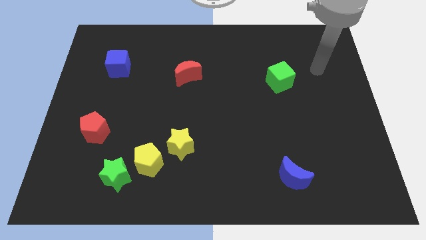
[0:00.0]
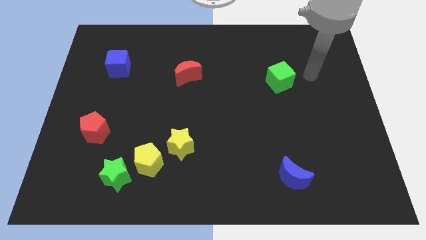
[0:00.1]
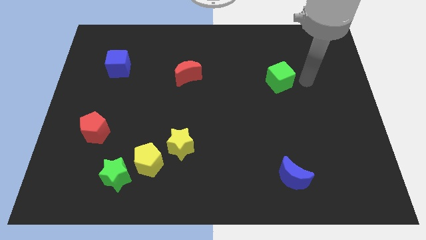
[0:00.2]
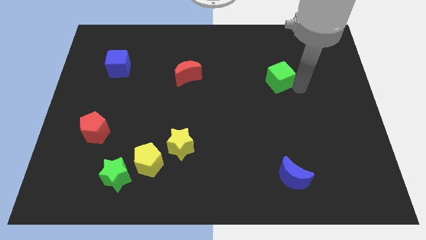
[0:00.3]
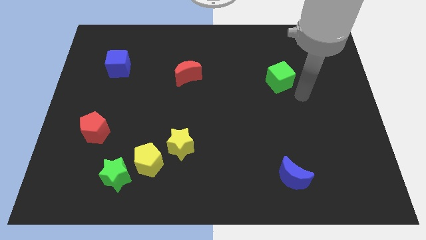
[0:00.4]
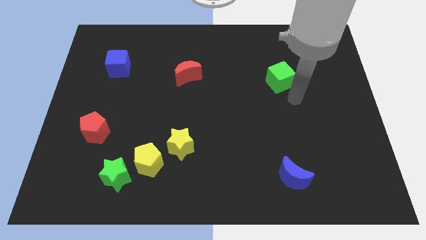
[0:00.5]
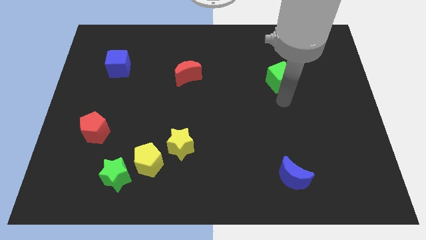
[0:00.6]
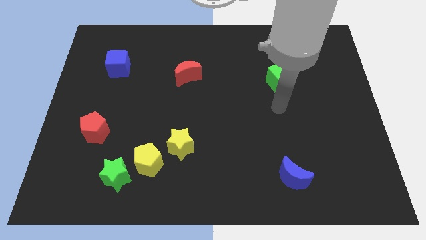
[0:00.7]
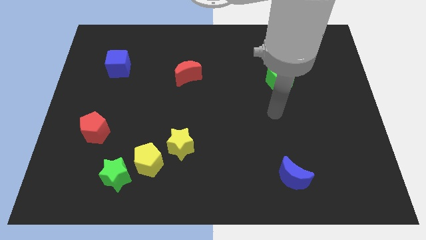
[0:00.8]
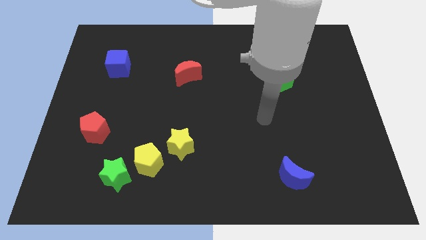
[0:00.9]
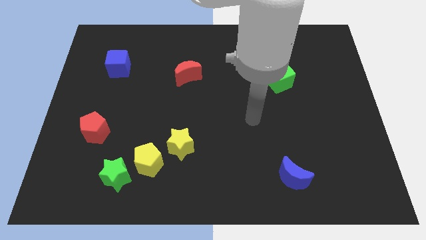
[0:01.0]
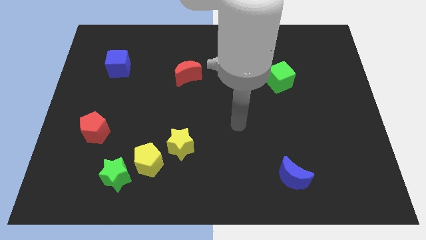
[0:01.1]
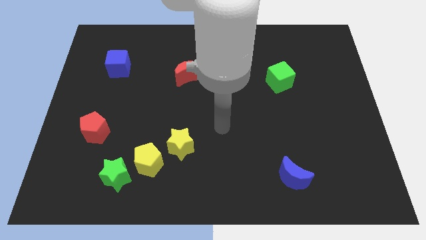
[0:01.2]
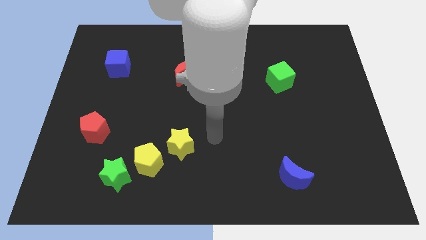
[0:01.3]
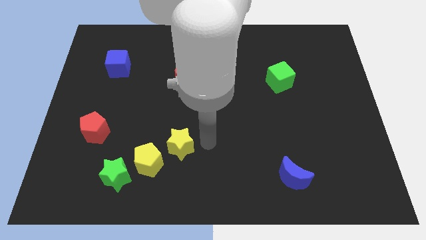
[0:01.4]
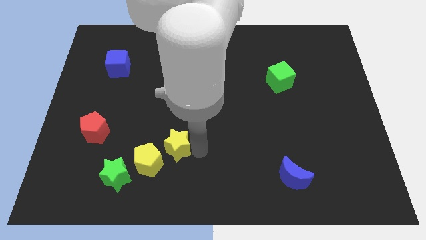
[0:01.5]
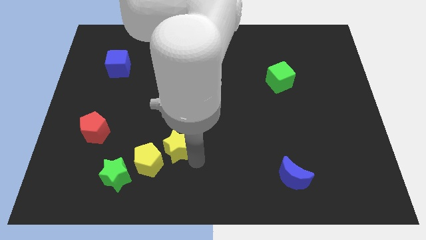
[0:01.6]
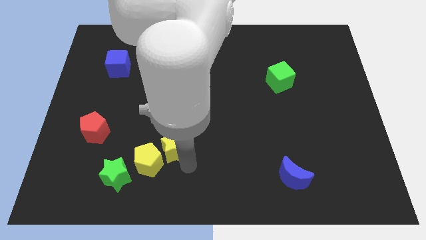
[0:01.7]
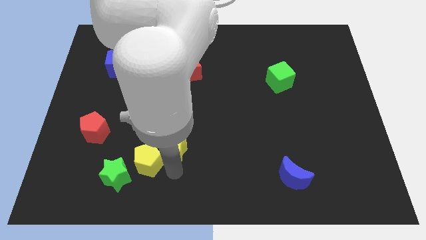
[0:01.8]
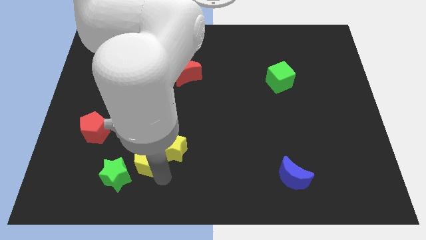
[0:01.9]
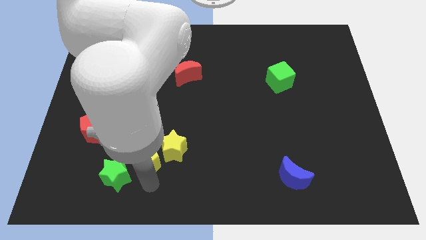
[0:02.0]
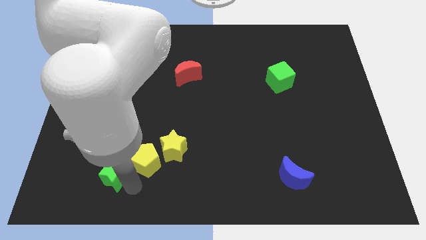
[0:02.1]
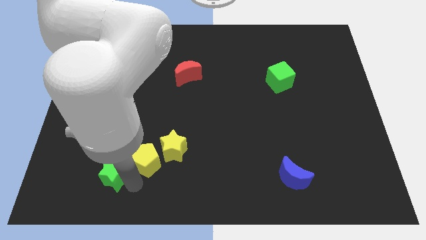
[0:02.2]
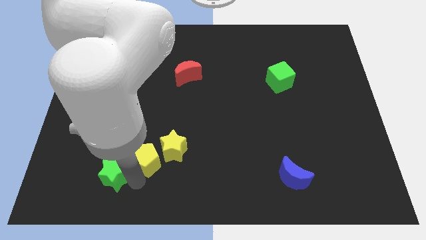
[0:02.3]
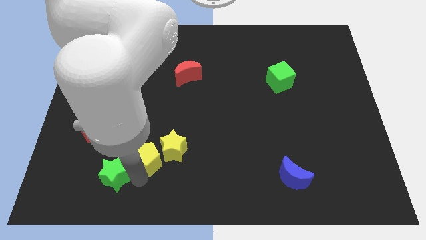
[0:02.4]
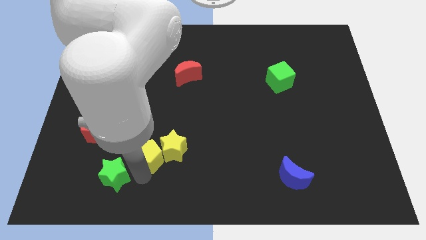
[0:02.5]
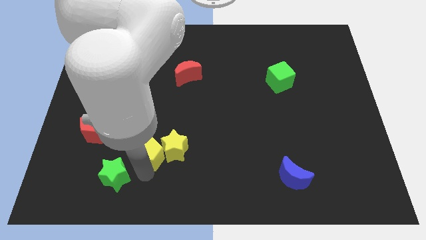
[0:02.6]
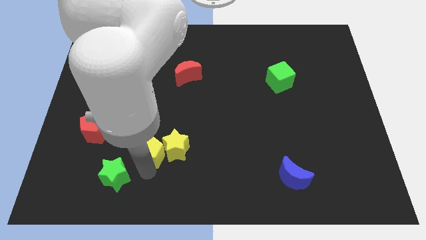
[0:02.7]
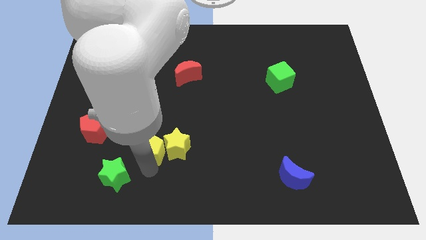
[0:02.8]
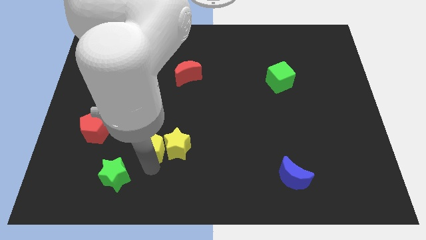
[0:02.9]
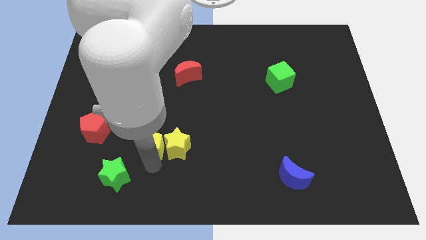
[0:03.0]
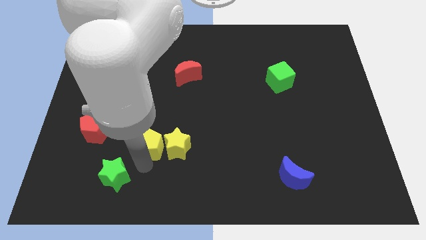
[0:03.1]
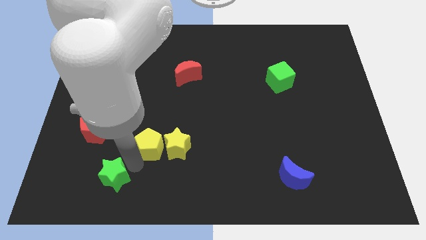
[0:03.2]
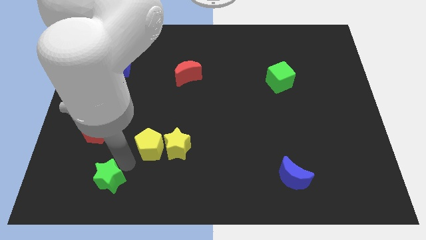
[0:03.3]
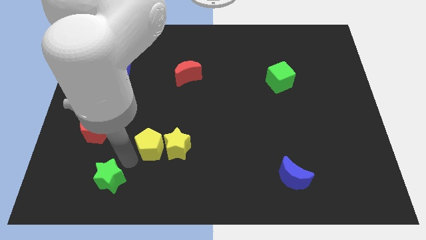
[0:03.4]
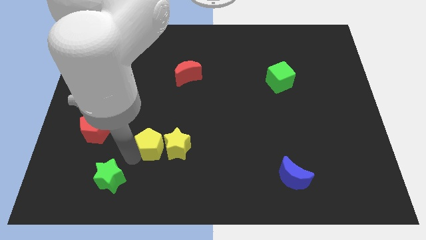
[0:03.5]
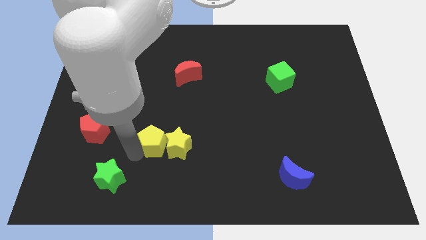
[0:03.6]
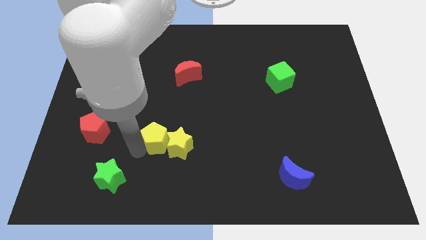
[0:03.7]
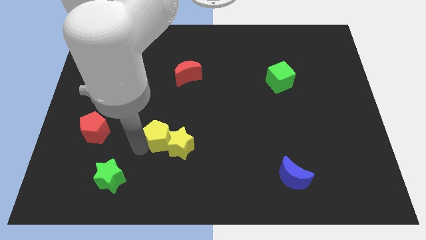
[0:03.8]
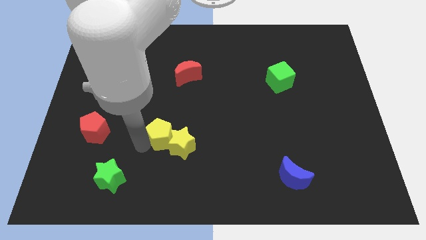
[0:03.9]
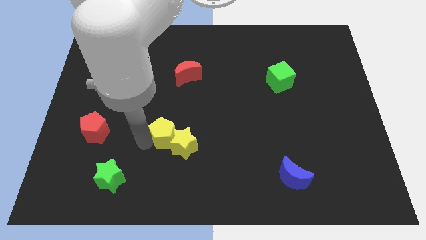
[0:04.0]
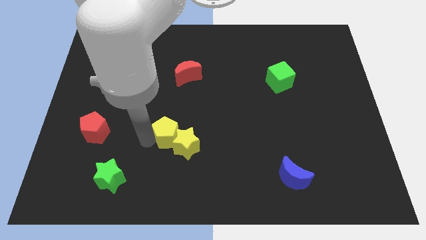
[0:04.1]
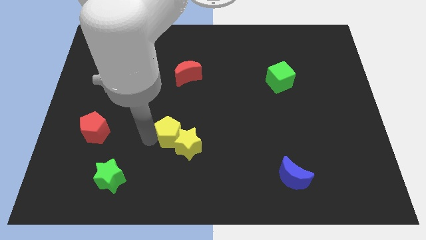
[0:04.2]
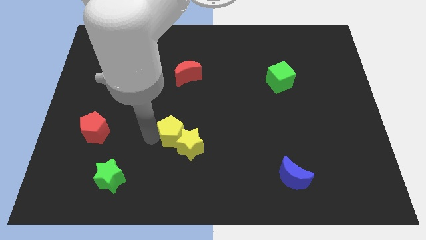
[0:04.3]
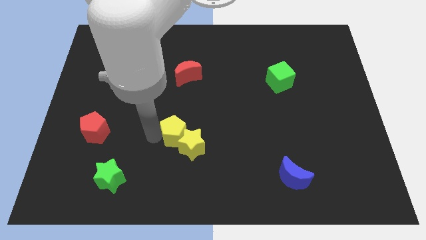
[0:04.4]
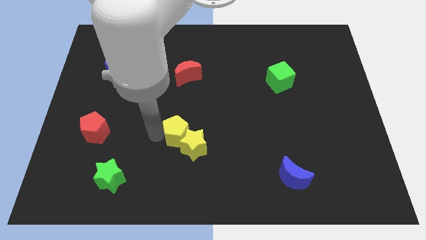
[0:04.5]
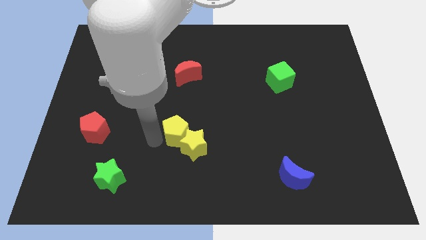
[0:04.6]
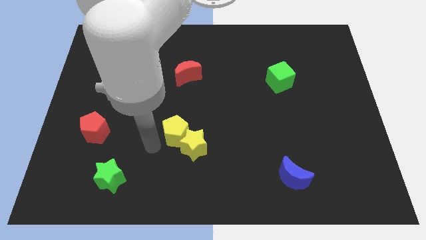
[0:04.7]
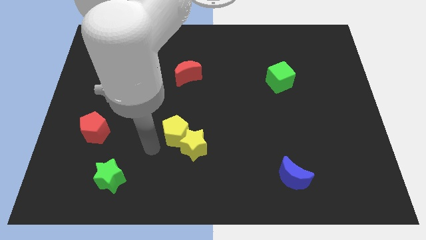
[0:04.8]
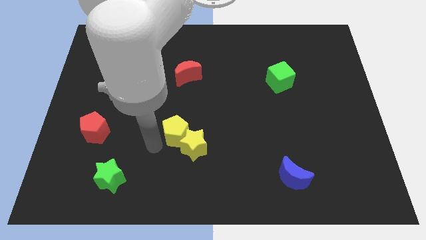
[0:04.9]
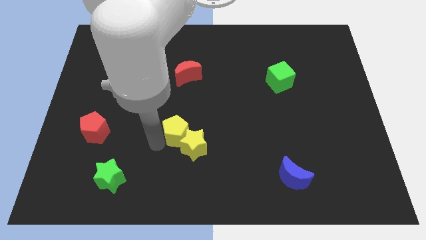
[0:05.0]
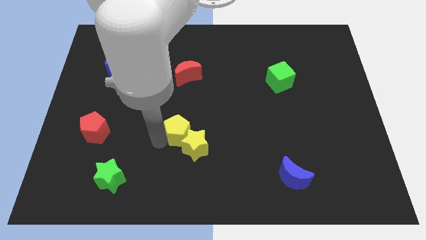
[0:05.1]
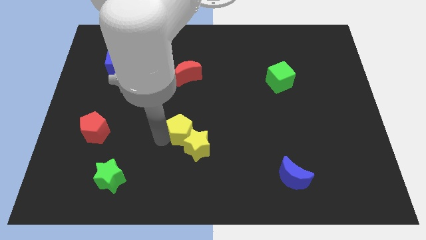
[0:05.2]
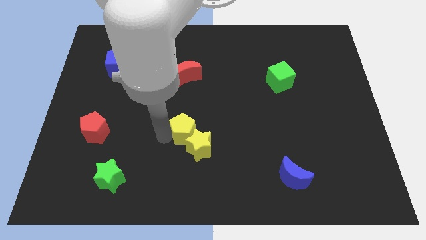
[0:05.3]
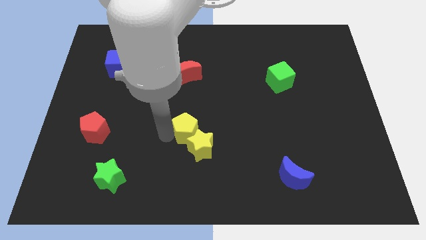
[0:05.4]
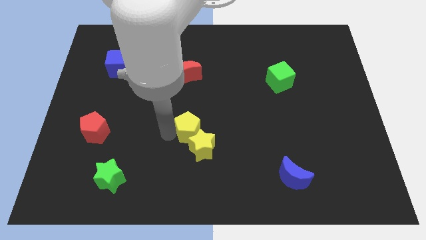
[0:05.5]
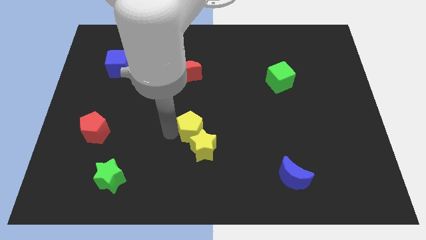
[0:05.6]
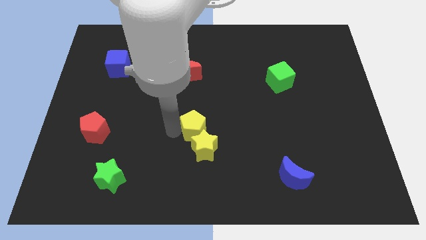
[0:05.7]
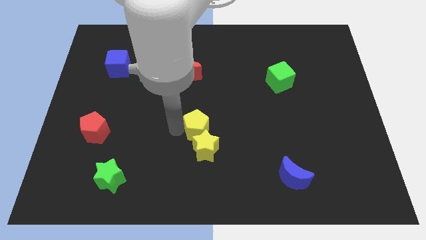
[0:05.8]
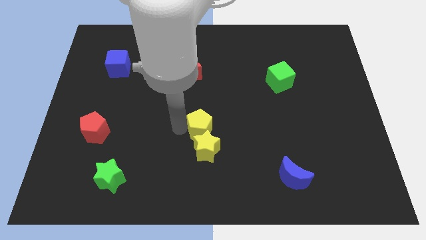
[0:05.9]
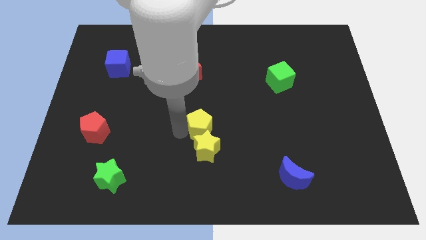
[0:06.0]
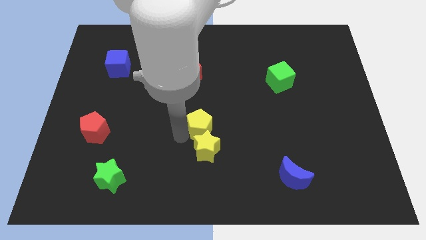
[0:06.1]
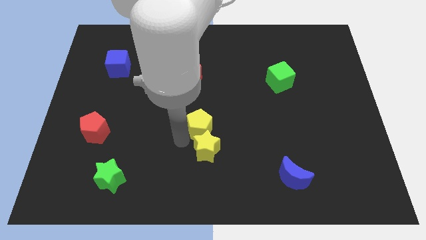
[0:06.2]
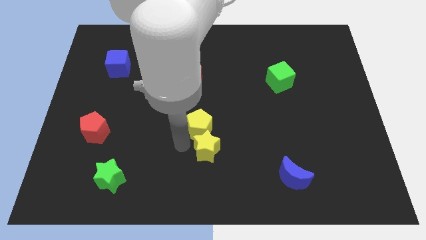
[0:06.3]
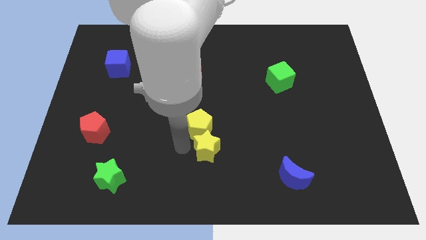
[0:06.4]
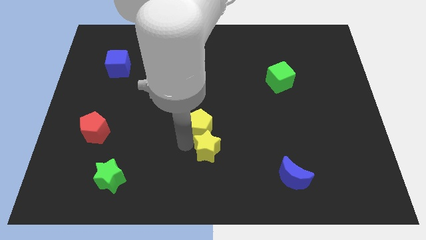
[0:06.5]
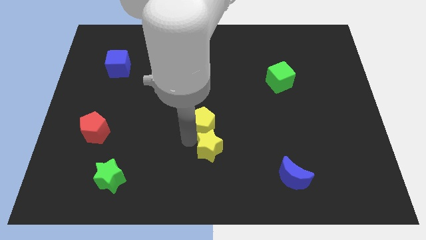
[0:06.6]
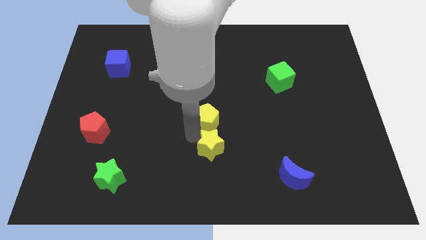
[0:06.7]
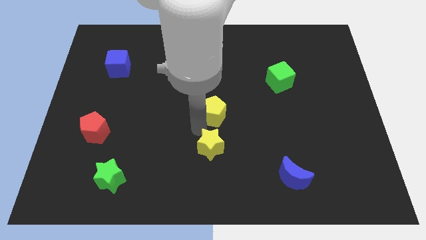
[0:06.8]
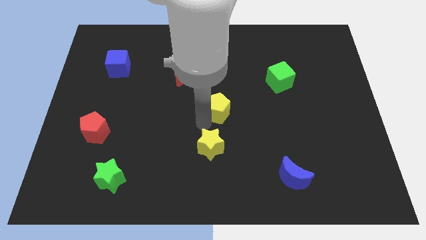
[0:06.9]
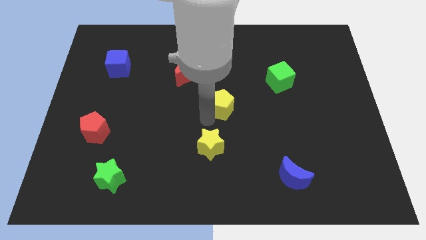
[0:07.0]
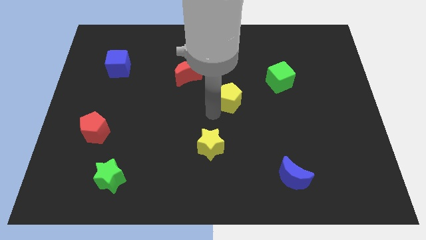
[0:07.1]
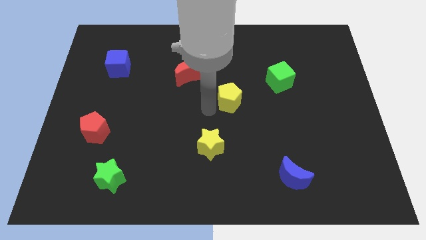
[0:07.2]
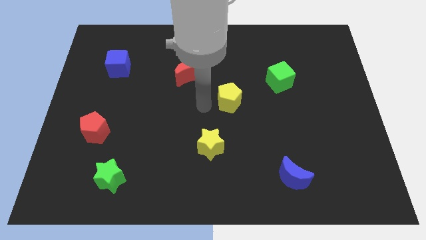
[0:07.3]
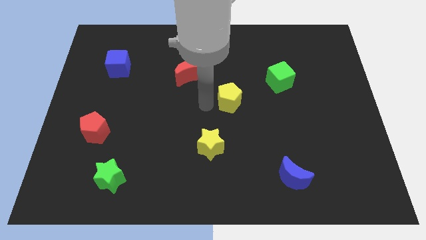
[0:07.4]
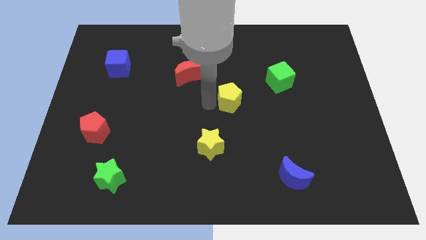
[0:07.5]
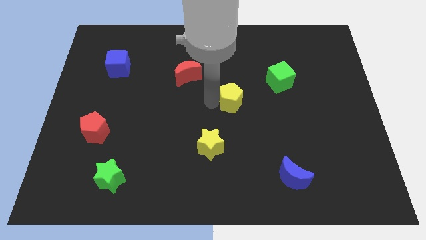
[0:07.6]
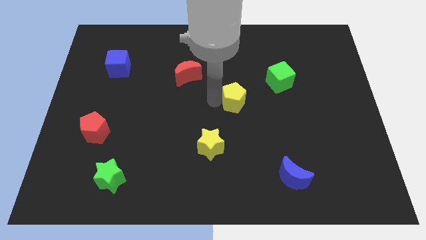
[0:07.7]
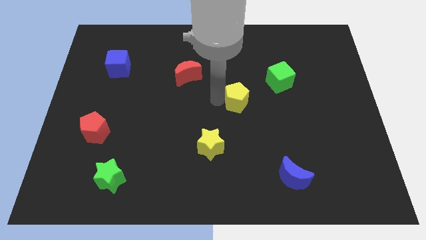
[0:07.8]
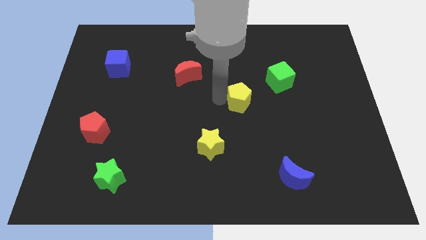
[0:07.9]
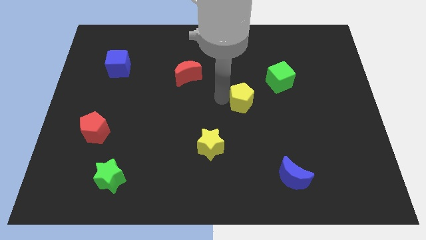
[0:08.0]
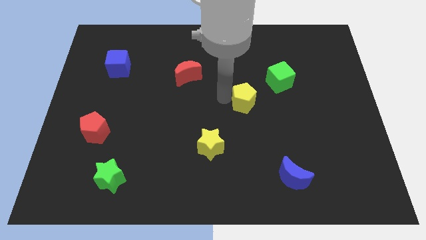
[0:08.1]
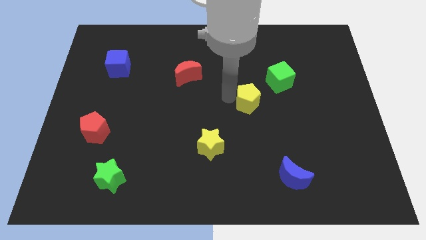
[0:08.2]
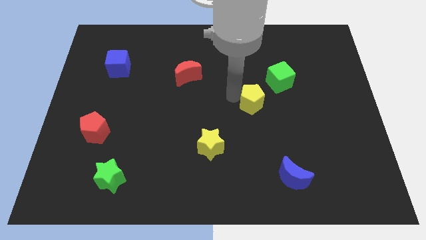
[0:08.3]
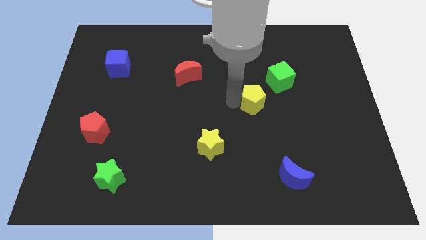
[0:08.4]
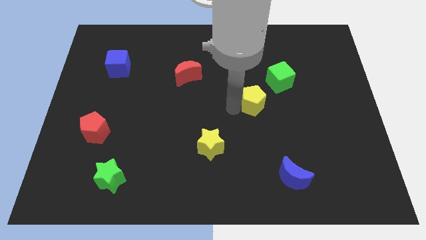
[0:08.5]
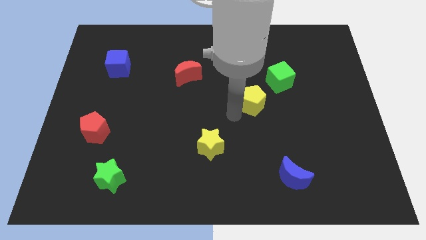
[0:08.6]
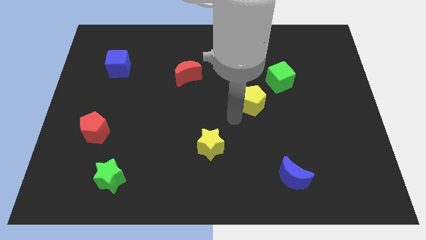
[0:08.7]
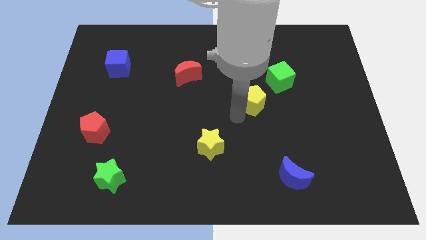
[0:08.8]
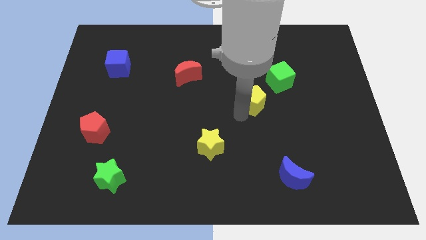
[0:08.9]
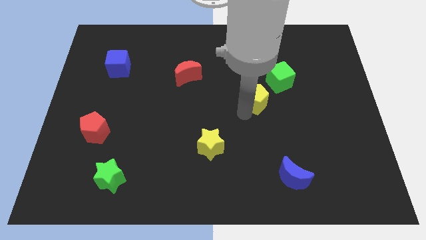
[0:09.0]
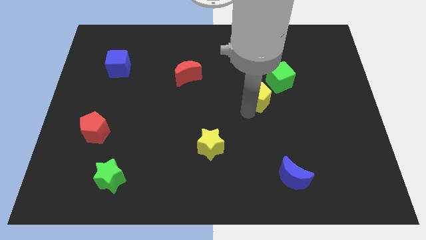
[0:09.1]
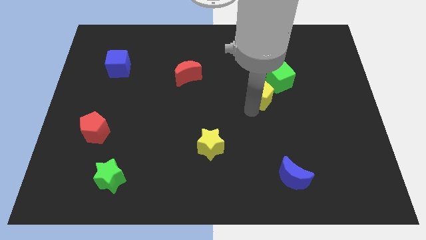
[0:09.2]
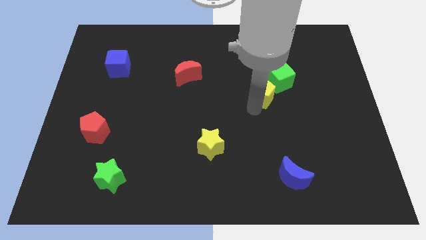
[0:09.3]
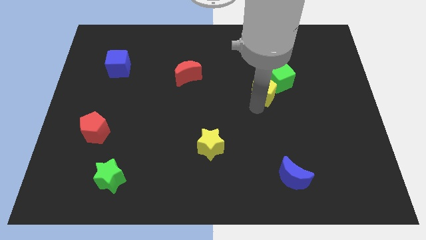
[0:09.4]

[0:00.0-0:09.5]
push the yellow pentagon to the green cube
